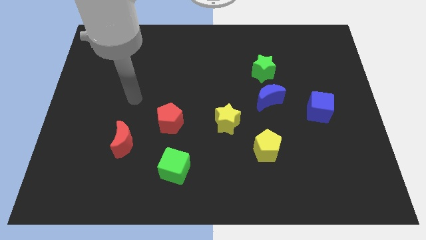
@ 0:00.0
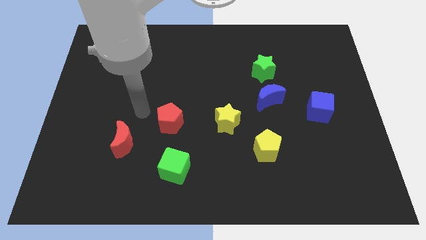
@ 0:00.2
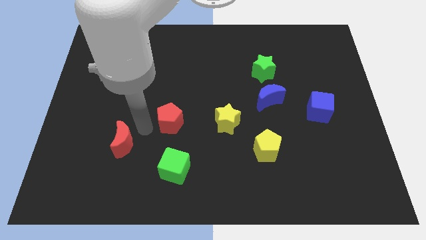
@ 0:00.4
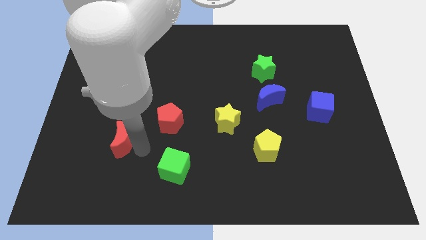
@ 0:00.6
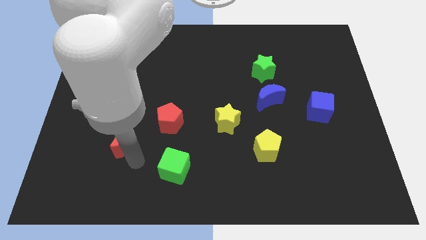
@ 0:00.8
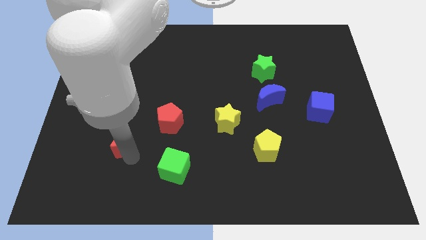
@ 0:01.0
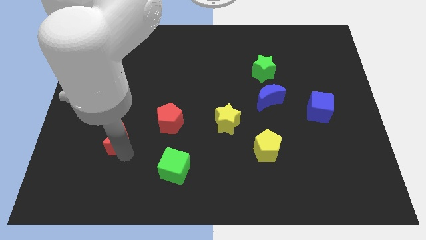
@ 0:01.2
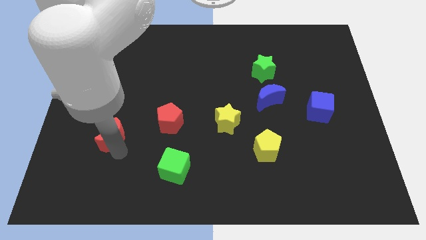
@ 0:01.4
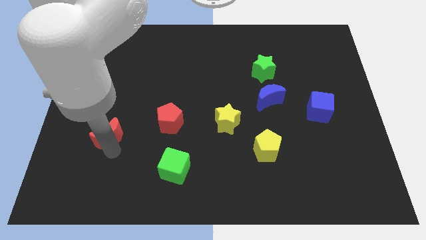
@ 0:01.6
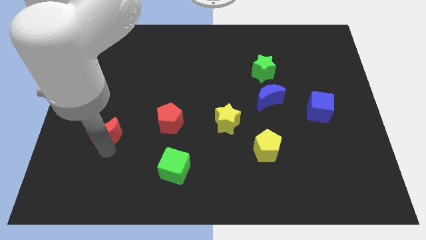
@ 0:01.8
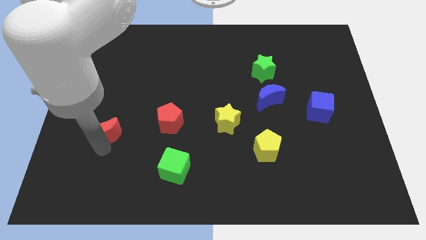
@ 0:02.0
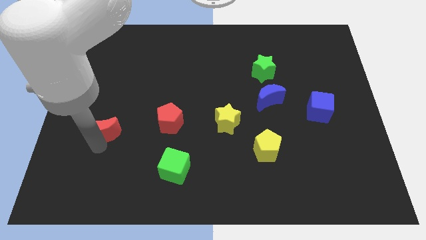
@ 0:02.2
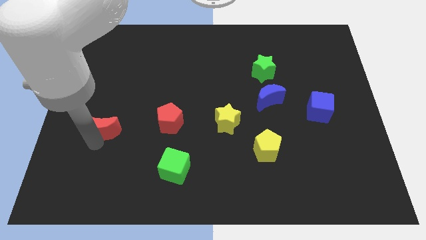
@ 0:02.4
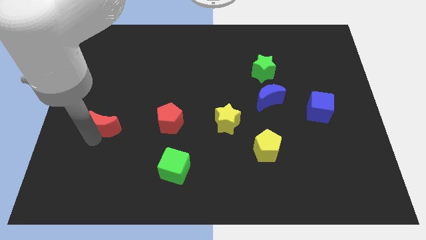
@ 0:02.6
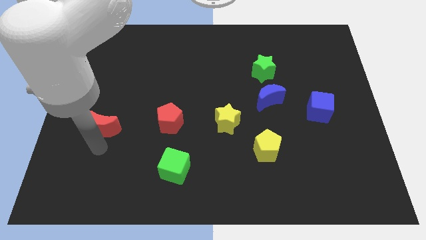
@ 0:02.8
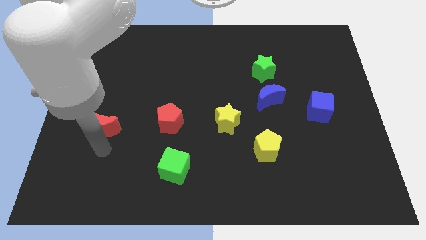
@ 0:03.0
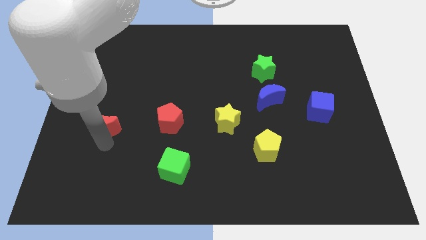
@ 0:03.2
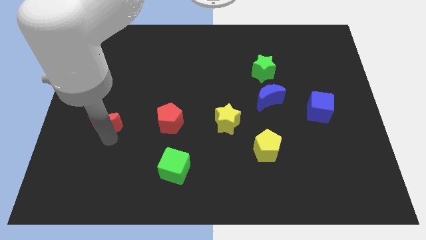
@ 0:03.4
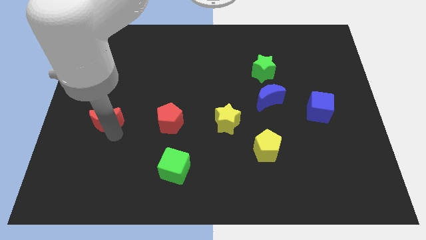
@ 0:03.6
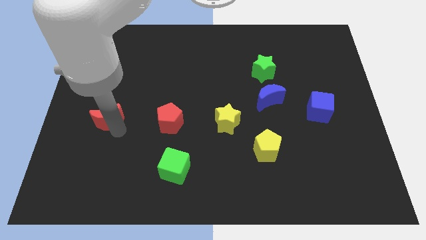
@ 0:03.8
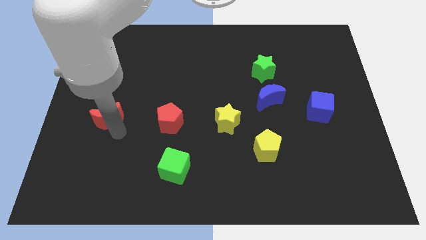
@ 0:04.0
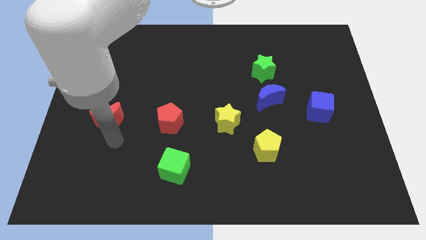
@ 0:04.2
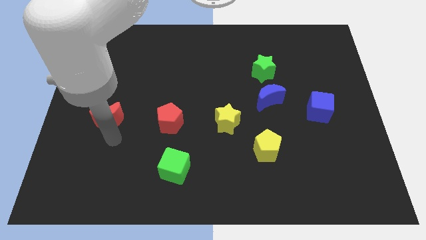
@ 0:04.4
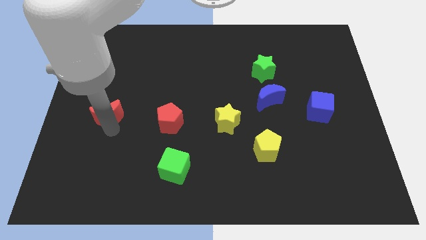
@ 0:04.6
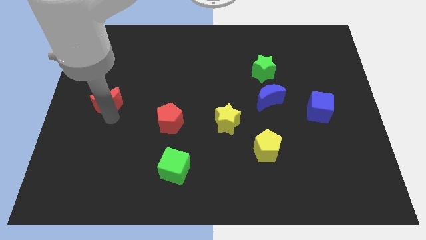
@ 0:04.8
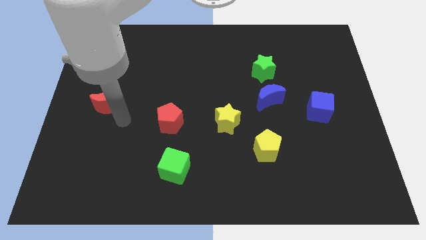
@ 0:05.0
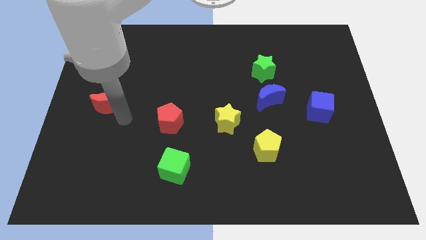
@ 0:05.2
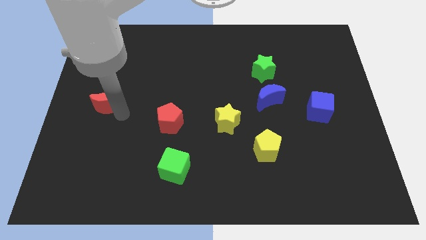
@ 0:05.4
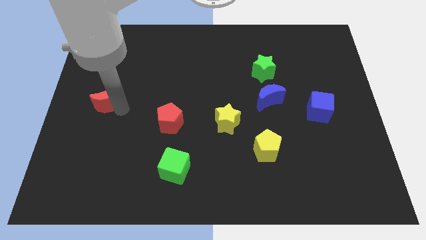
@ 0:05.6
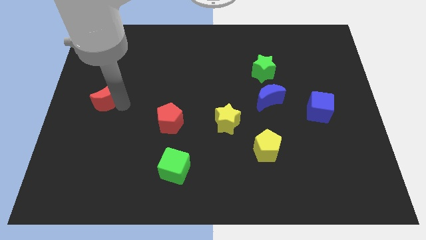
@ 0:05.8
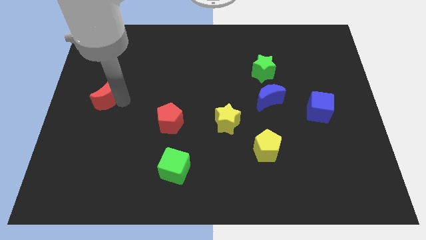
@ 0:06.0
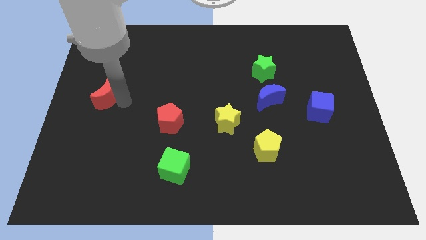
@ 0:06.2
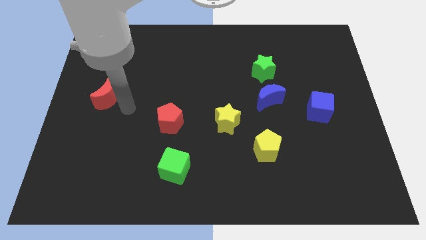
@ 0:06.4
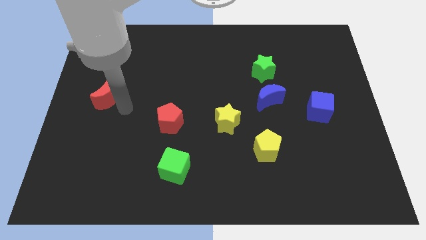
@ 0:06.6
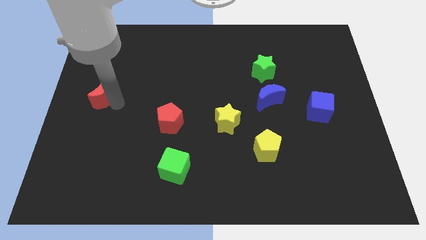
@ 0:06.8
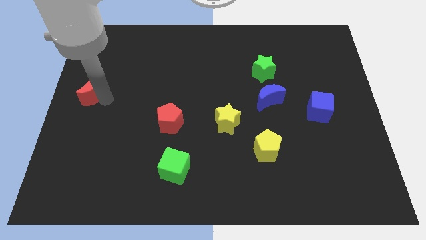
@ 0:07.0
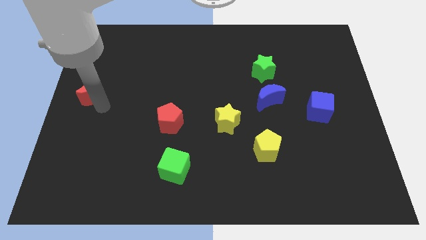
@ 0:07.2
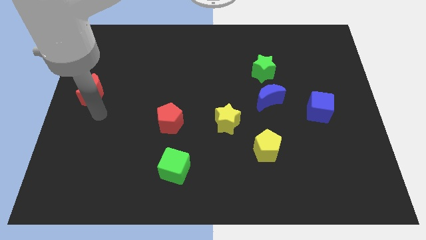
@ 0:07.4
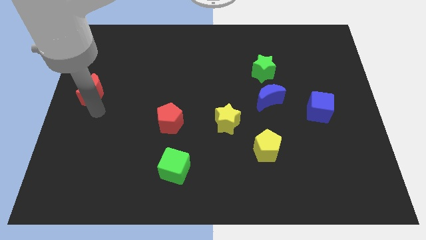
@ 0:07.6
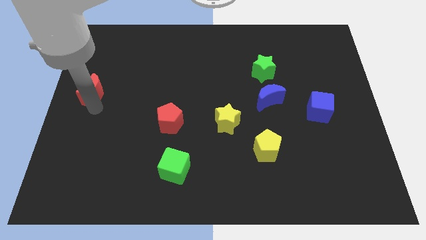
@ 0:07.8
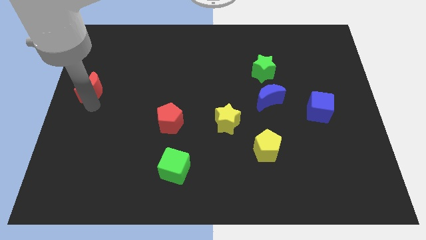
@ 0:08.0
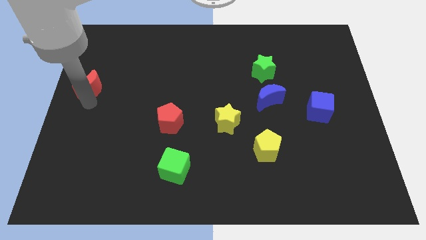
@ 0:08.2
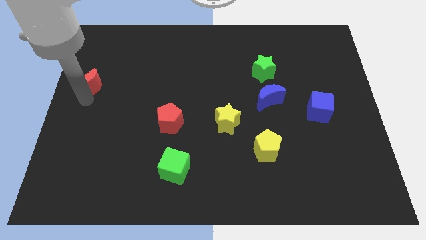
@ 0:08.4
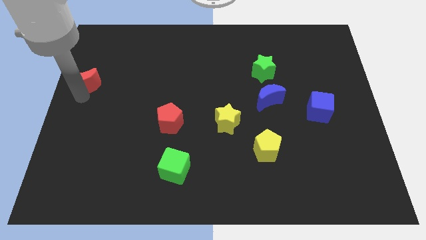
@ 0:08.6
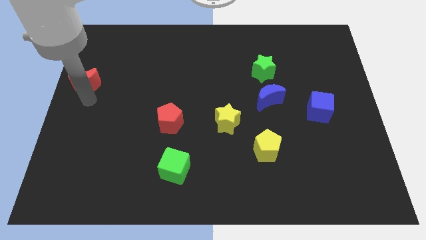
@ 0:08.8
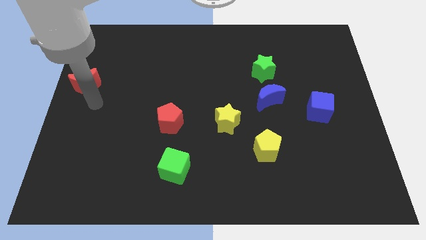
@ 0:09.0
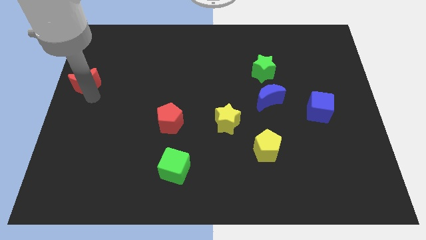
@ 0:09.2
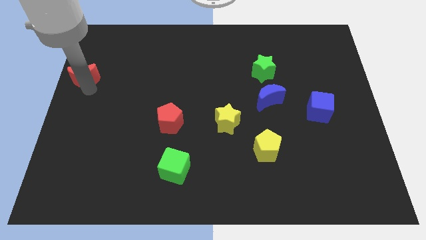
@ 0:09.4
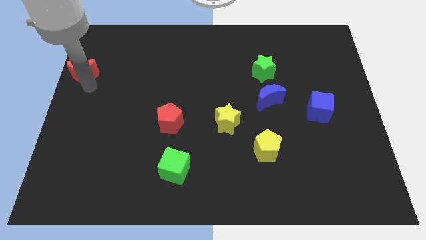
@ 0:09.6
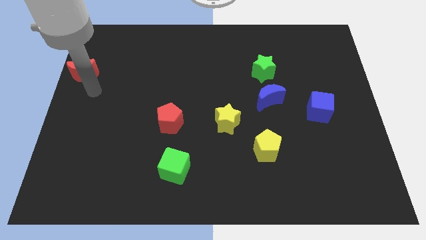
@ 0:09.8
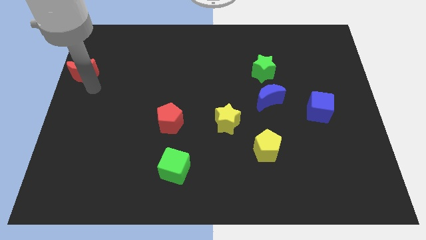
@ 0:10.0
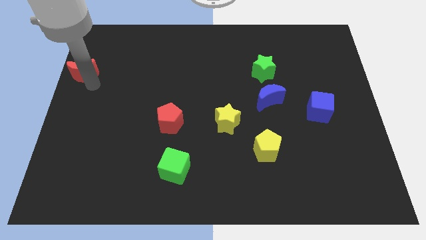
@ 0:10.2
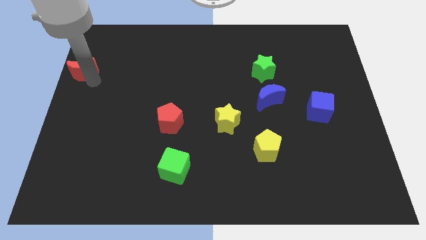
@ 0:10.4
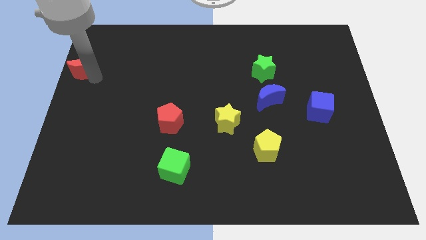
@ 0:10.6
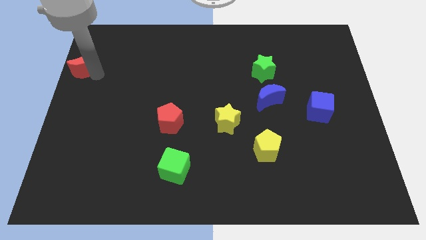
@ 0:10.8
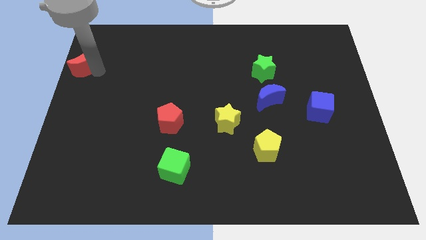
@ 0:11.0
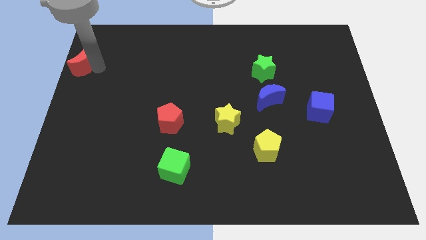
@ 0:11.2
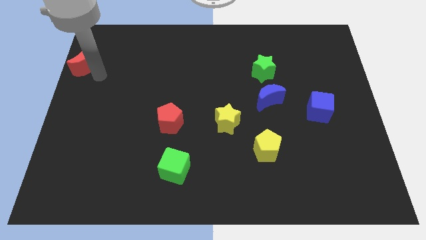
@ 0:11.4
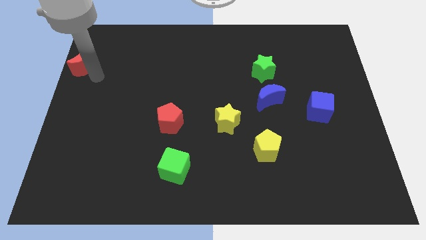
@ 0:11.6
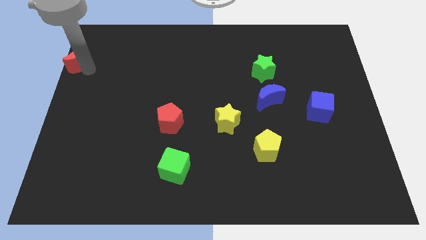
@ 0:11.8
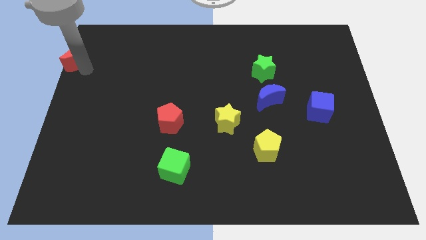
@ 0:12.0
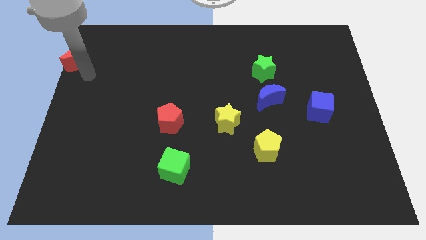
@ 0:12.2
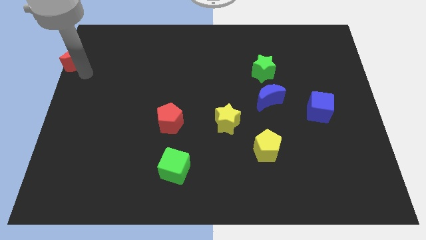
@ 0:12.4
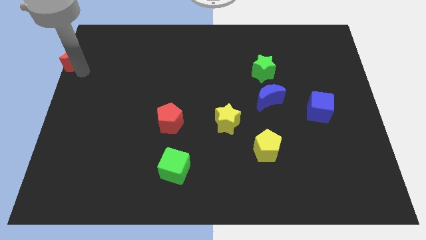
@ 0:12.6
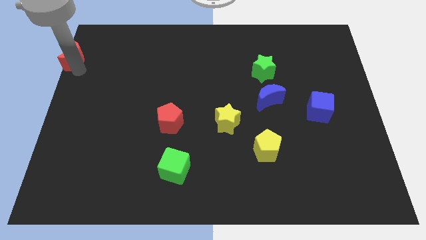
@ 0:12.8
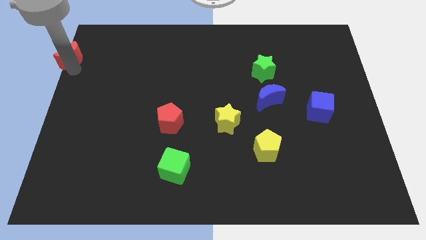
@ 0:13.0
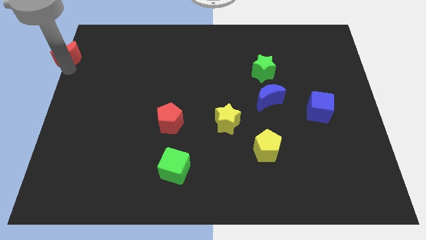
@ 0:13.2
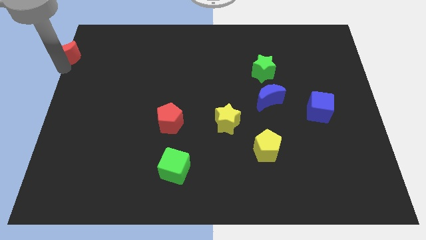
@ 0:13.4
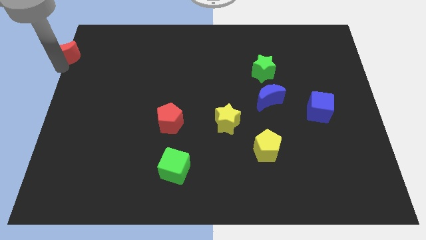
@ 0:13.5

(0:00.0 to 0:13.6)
slide the red moon to the upper left corner
